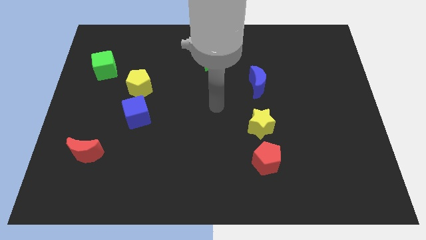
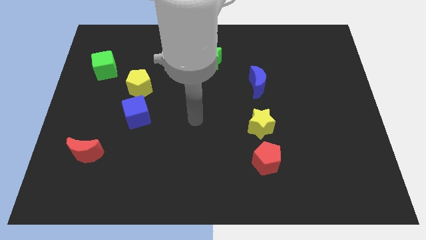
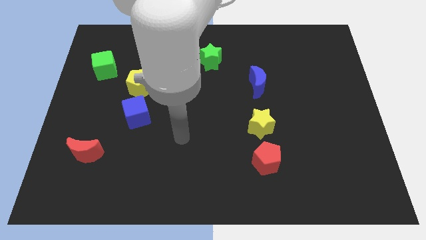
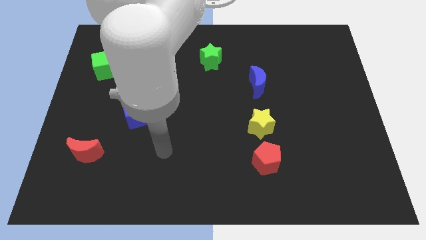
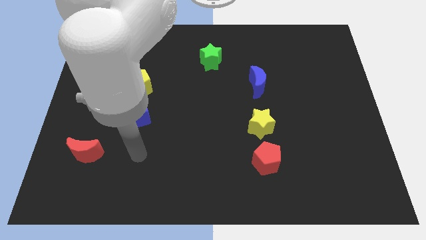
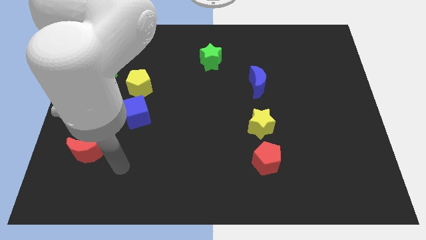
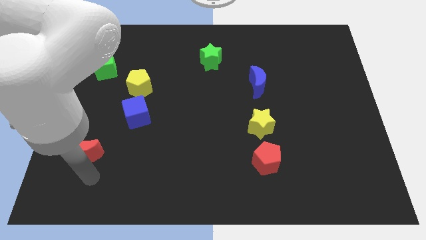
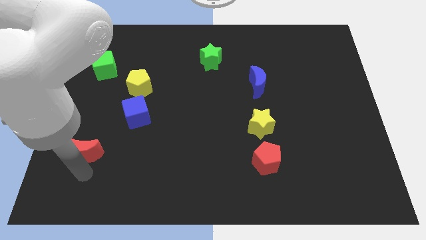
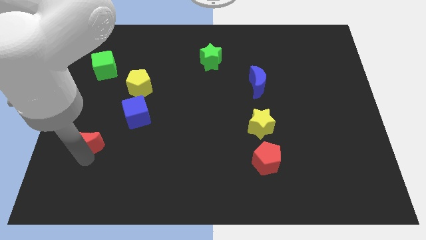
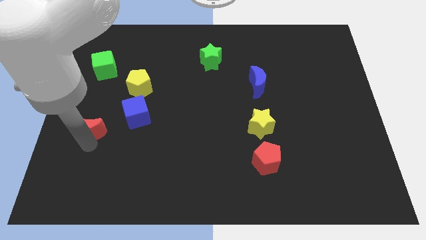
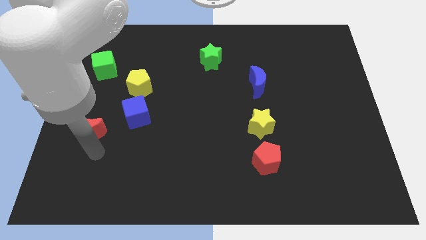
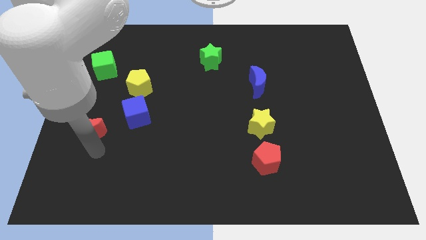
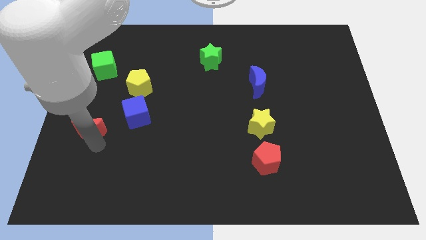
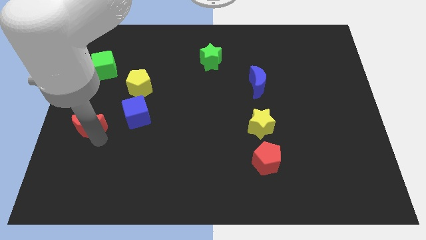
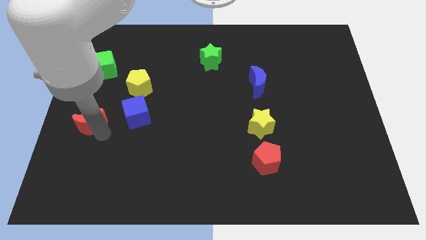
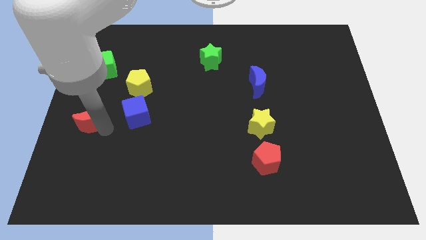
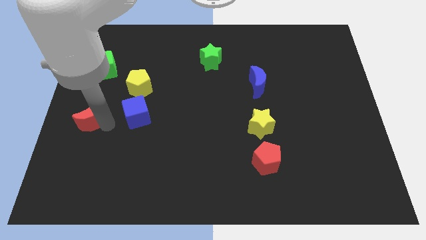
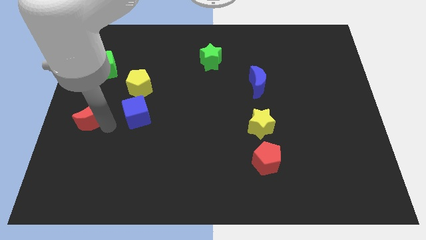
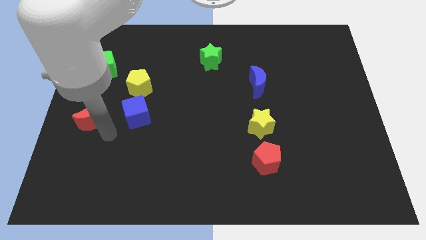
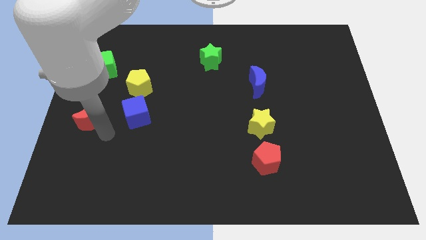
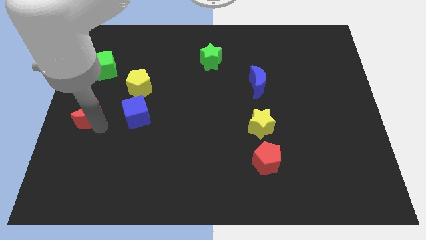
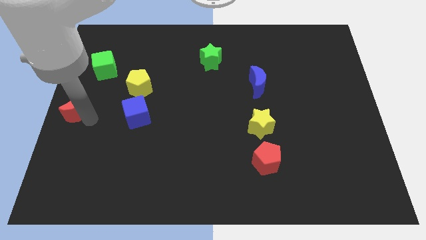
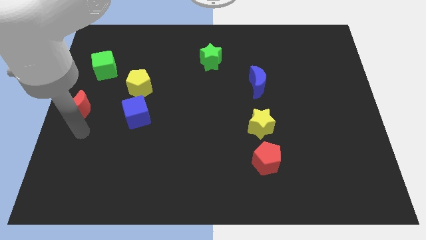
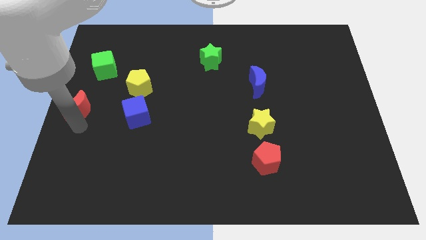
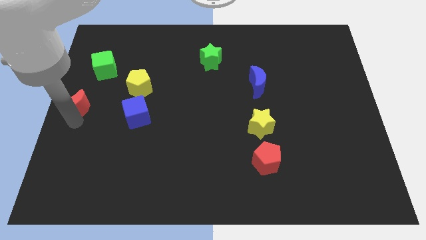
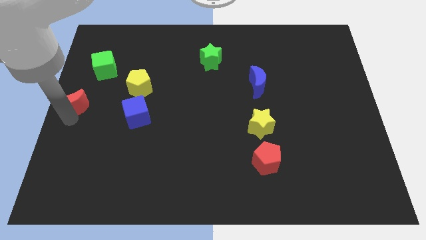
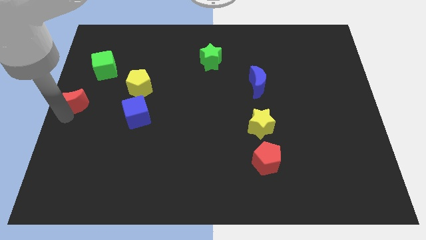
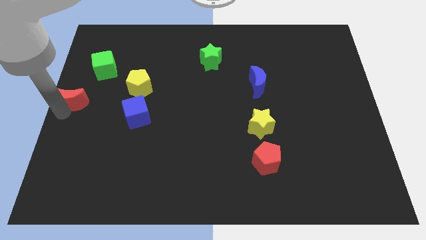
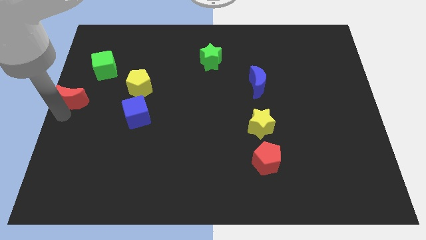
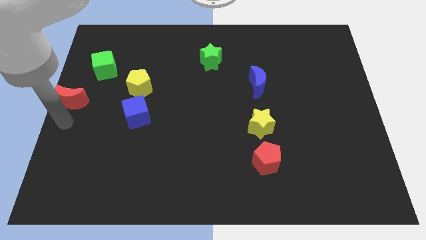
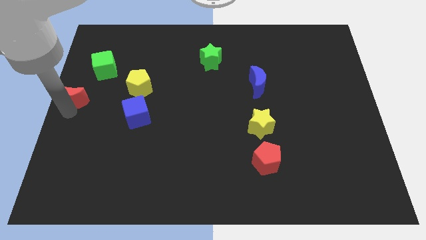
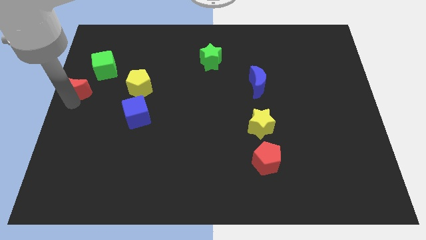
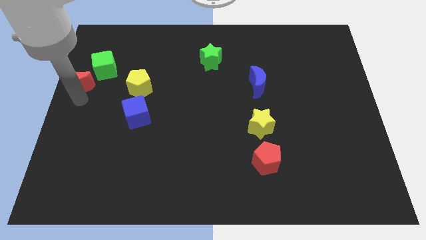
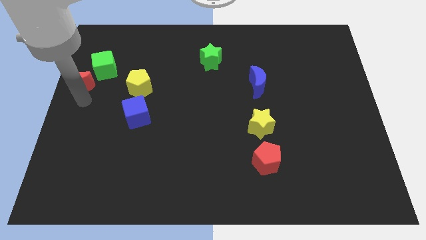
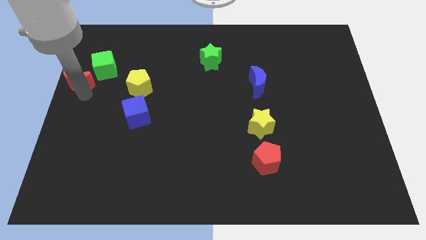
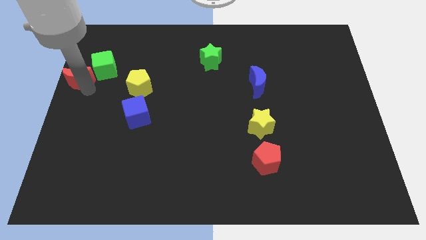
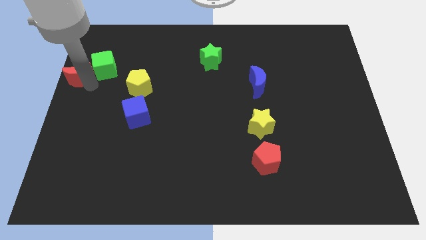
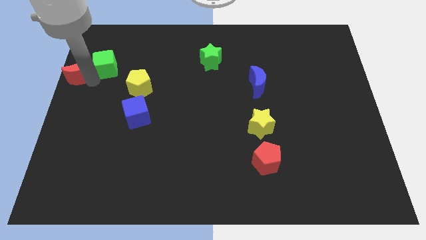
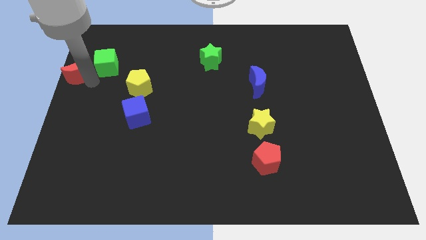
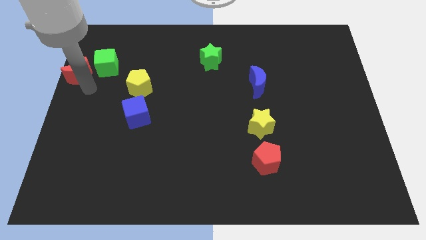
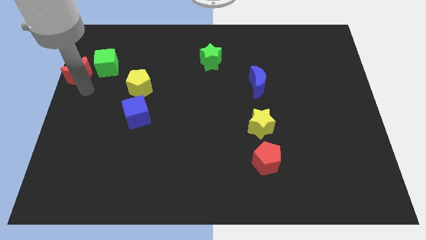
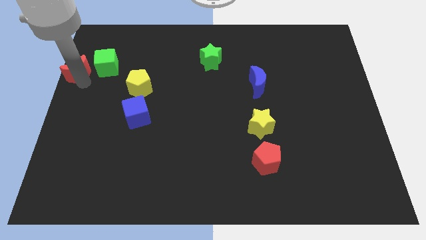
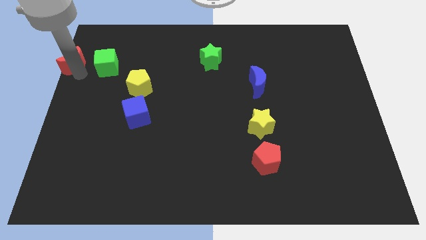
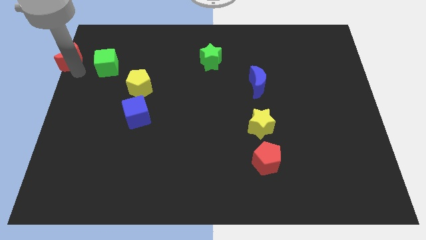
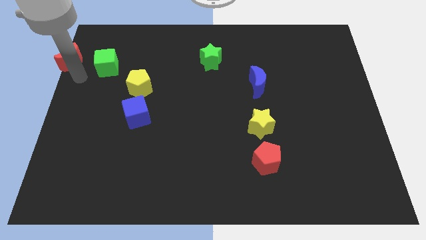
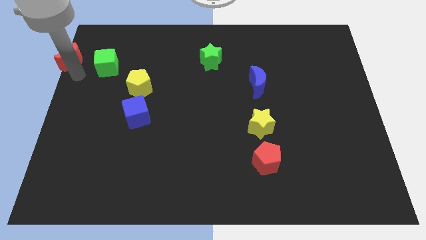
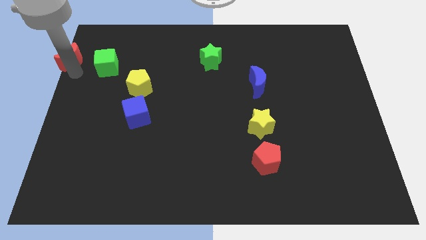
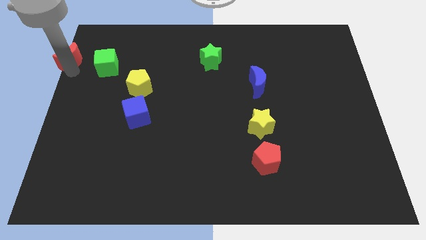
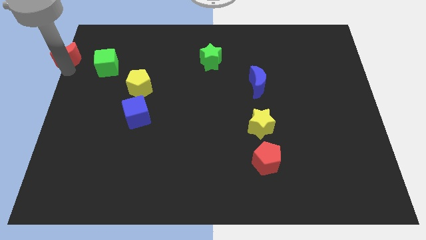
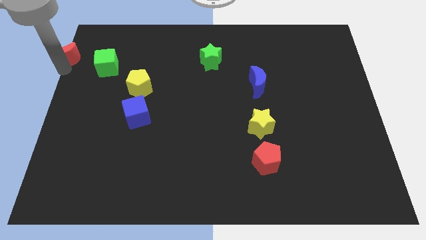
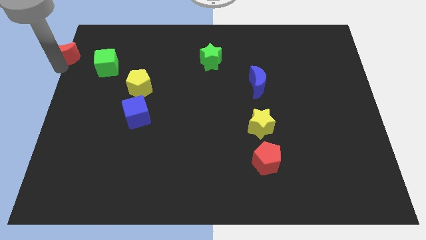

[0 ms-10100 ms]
move the red moon to the top left
